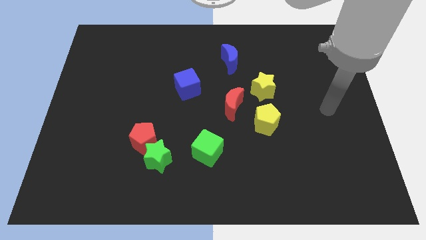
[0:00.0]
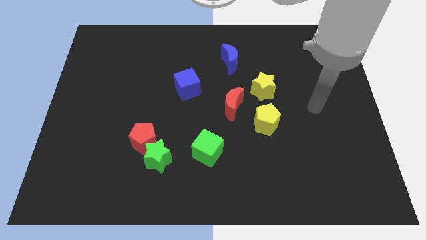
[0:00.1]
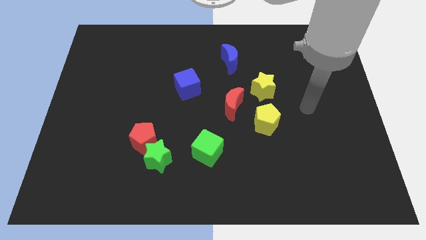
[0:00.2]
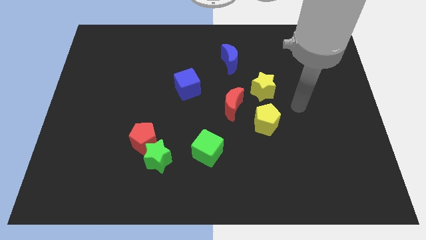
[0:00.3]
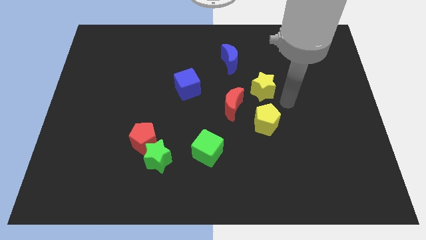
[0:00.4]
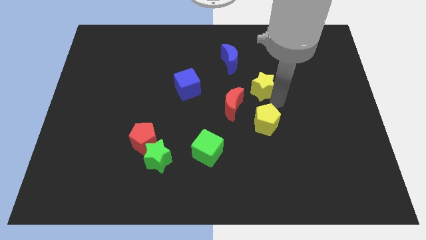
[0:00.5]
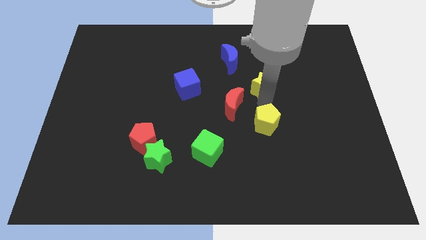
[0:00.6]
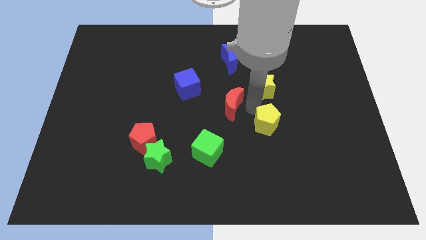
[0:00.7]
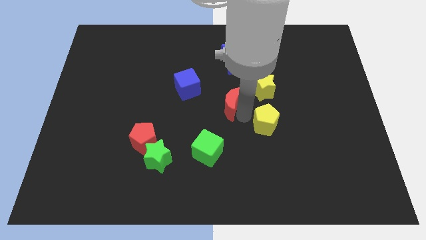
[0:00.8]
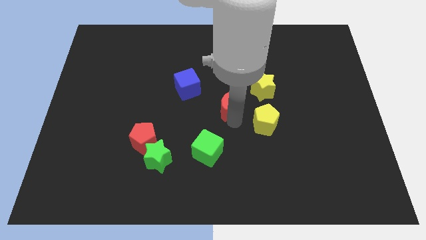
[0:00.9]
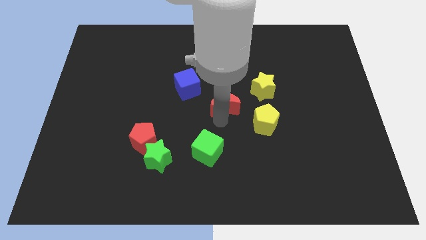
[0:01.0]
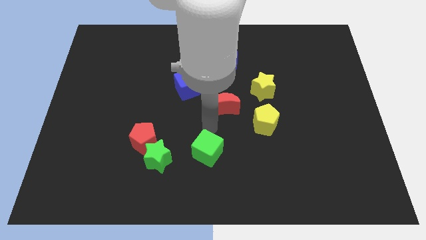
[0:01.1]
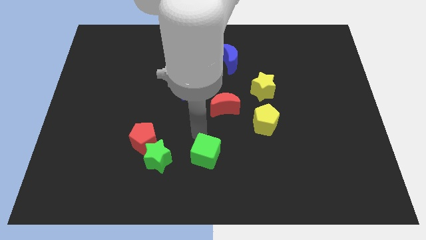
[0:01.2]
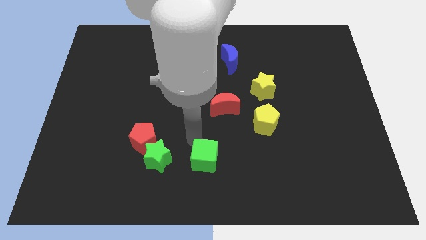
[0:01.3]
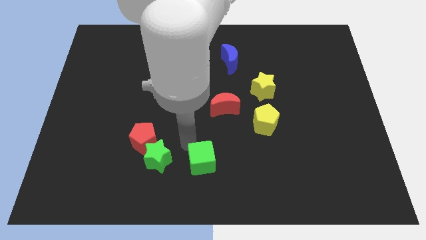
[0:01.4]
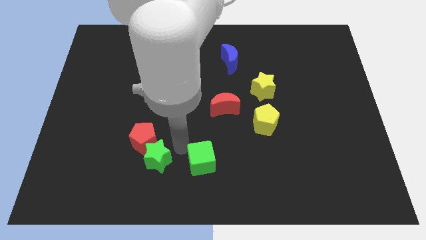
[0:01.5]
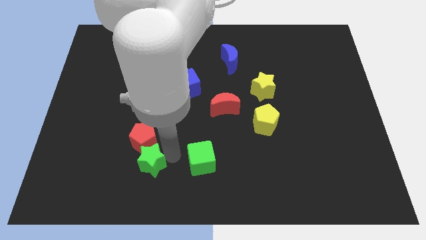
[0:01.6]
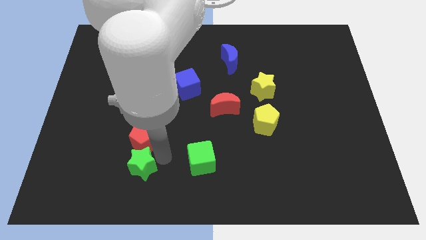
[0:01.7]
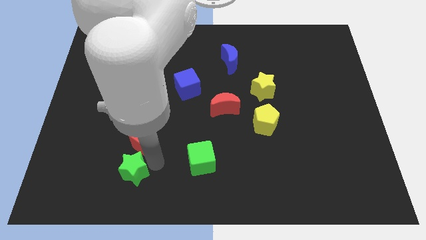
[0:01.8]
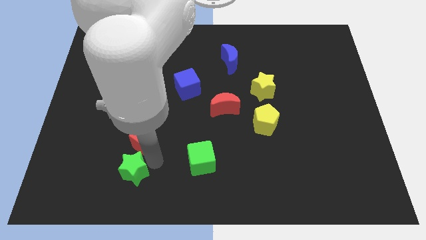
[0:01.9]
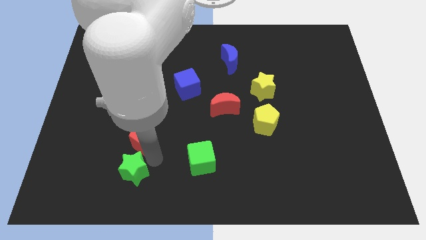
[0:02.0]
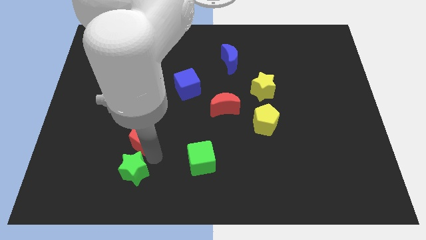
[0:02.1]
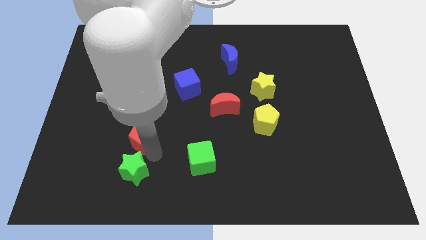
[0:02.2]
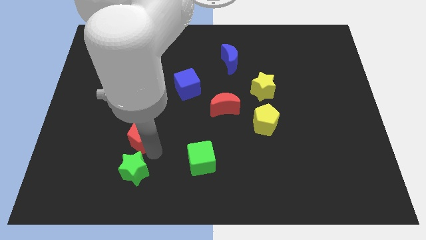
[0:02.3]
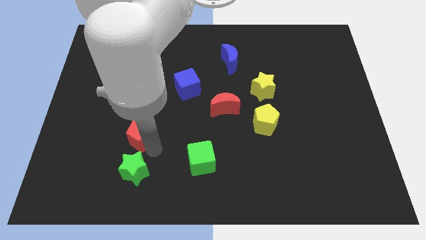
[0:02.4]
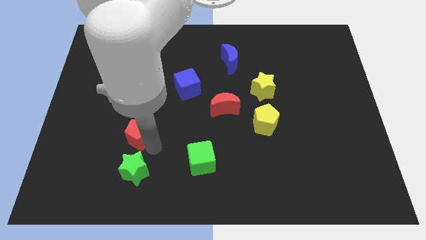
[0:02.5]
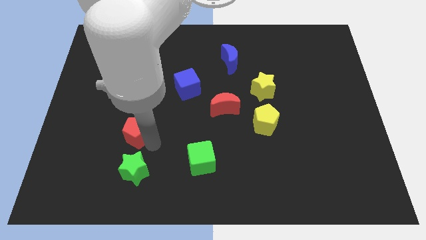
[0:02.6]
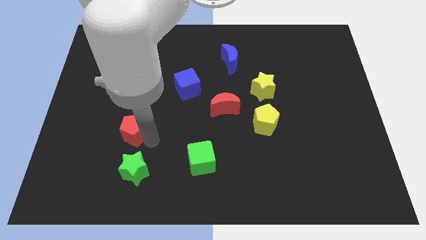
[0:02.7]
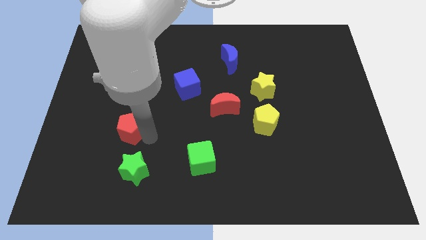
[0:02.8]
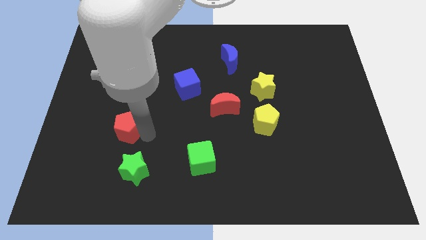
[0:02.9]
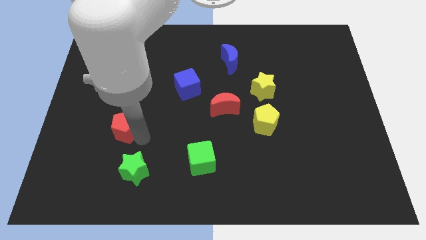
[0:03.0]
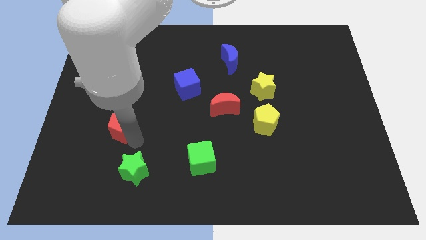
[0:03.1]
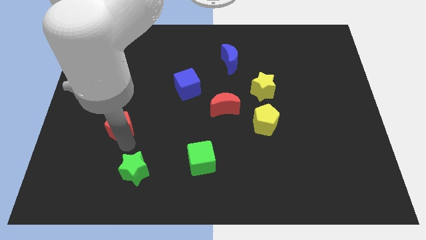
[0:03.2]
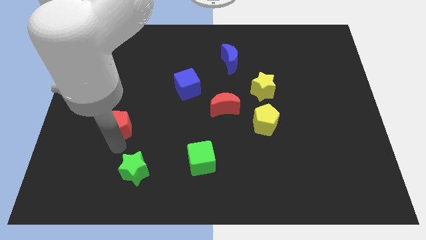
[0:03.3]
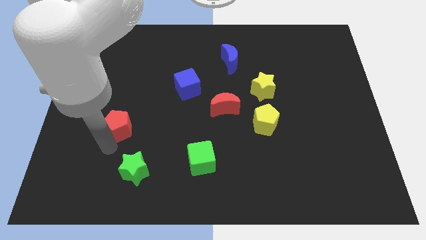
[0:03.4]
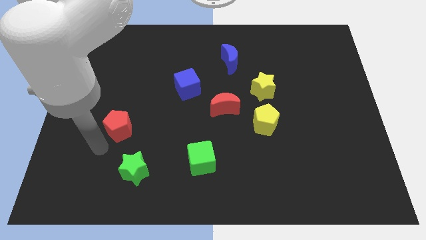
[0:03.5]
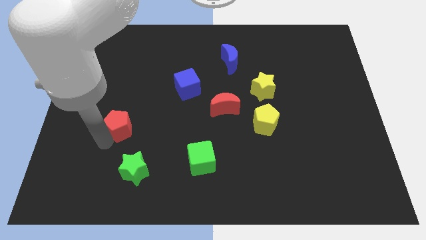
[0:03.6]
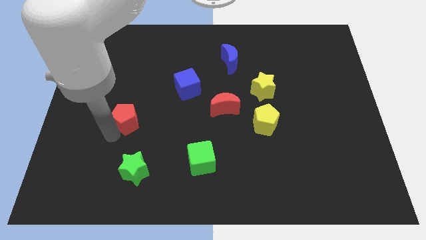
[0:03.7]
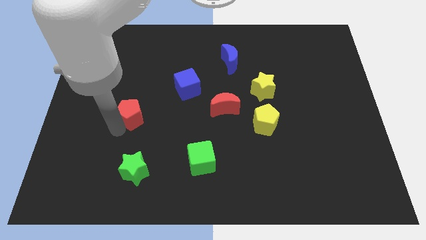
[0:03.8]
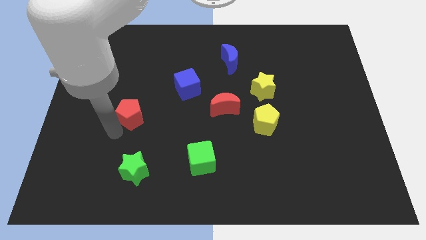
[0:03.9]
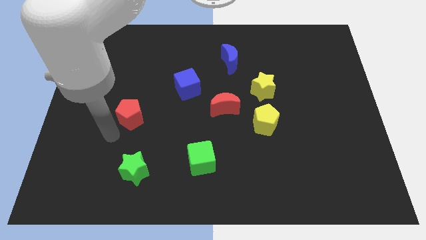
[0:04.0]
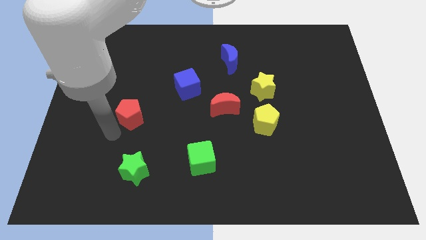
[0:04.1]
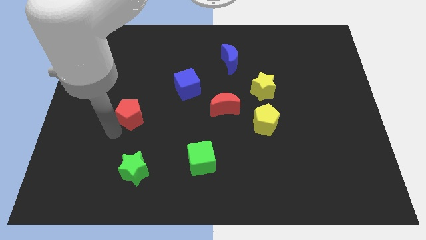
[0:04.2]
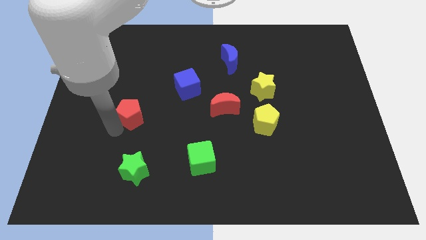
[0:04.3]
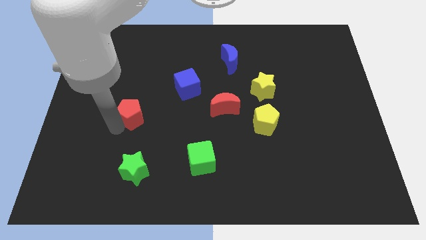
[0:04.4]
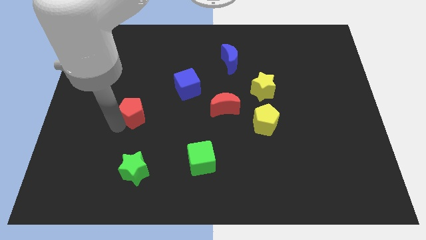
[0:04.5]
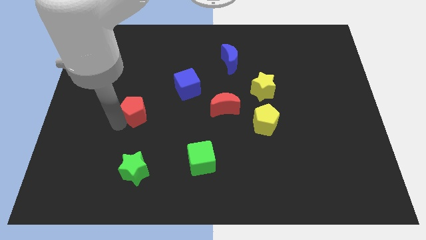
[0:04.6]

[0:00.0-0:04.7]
slightly push the red pentagon upwards

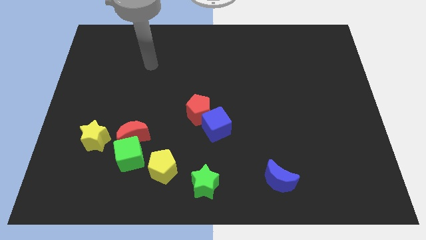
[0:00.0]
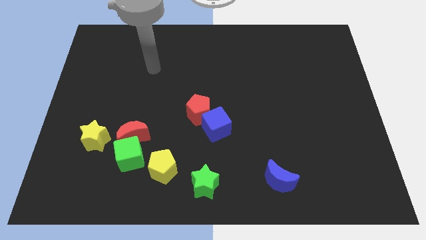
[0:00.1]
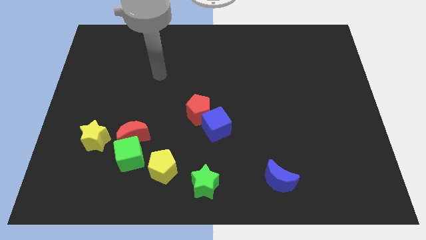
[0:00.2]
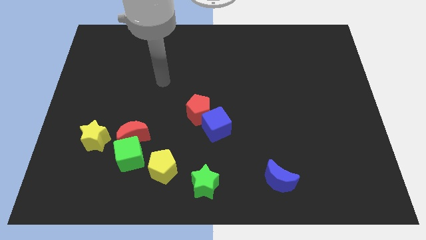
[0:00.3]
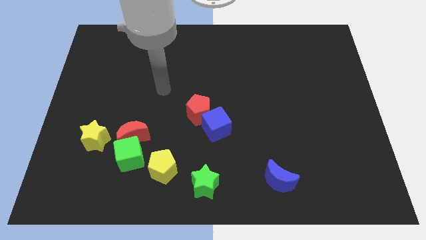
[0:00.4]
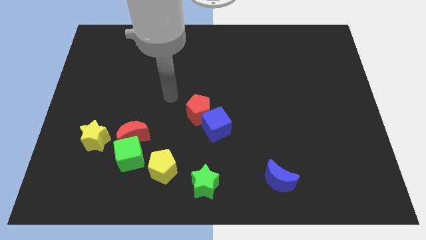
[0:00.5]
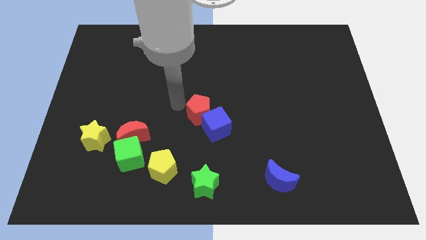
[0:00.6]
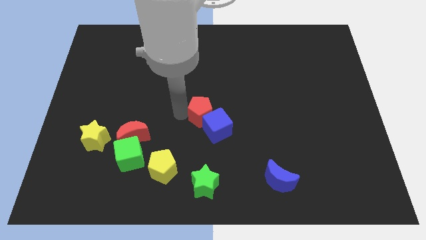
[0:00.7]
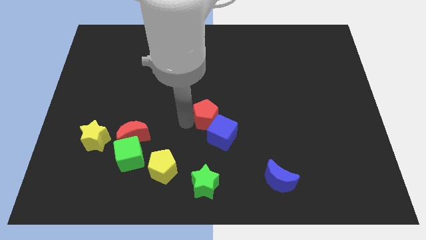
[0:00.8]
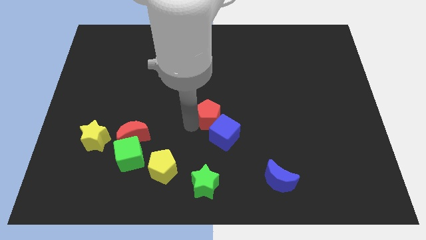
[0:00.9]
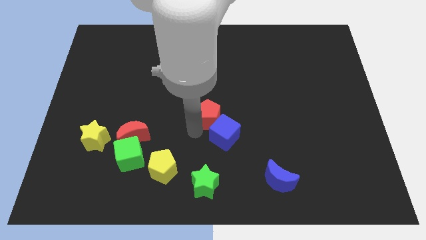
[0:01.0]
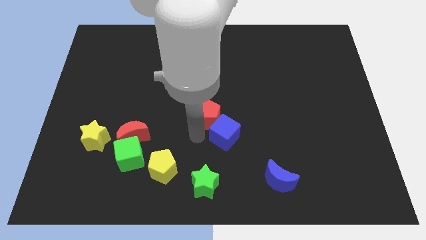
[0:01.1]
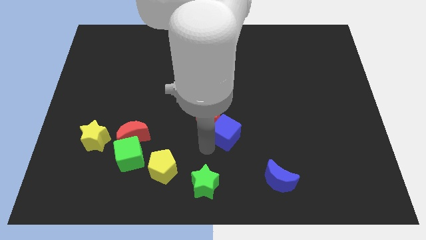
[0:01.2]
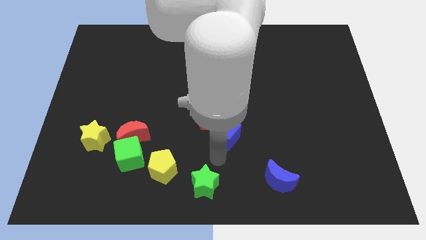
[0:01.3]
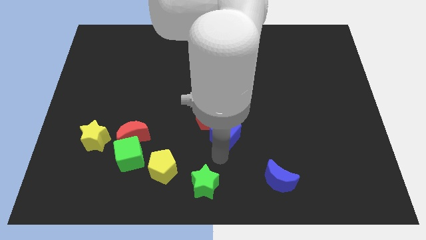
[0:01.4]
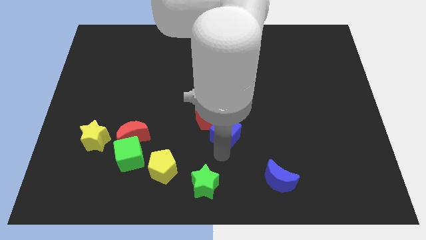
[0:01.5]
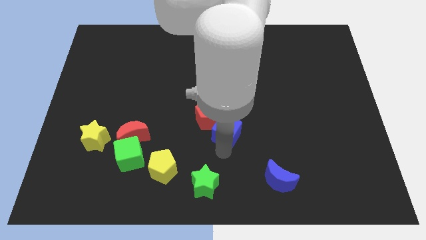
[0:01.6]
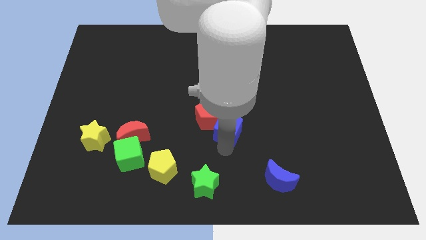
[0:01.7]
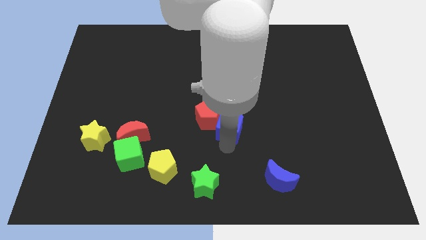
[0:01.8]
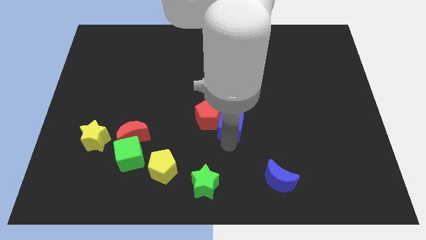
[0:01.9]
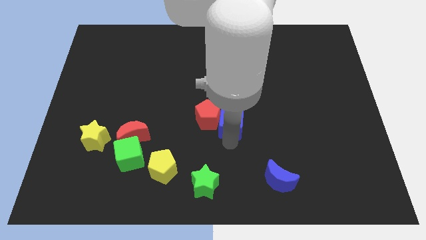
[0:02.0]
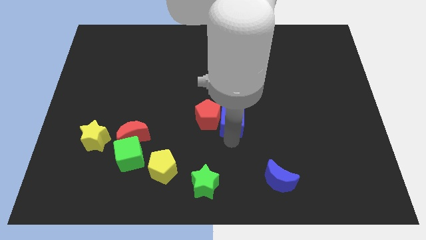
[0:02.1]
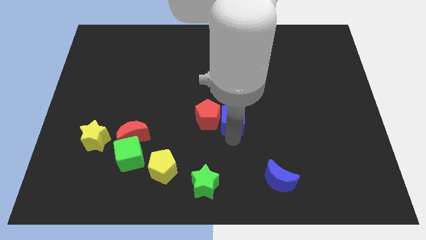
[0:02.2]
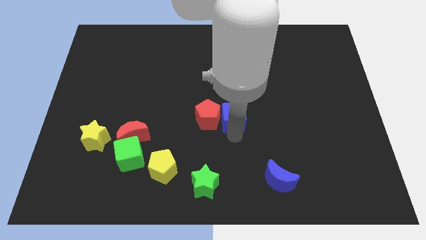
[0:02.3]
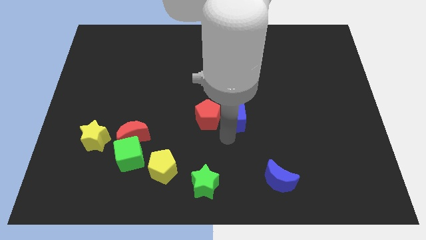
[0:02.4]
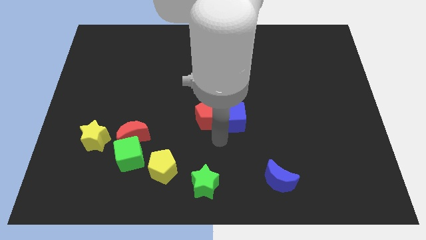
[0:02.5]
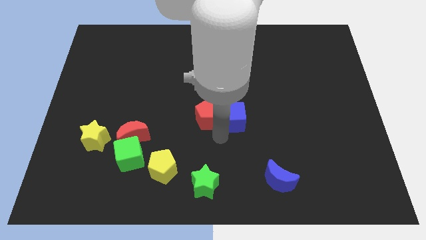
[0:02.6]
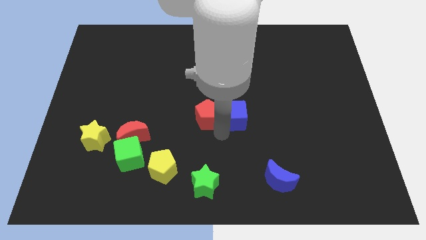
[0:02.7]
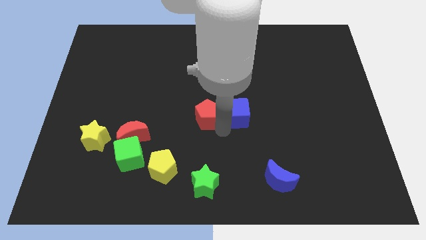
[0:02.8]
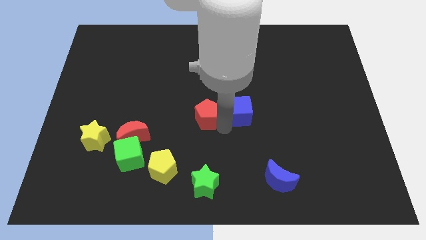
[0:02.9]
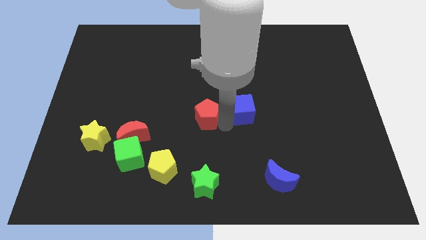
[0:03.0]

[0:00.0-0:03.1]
move the blue cube a little bit upwards and then to the right
